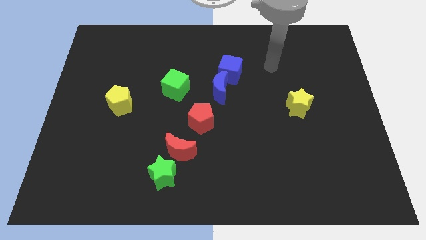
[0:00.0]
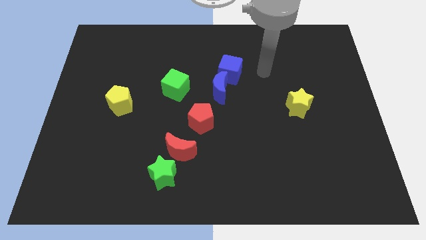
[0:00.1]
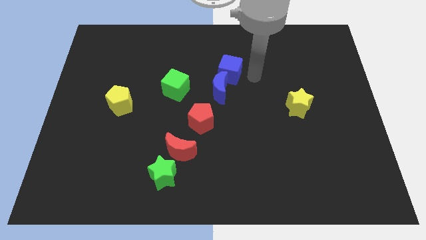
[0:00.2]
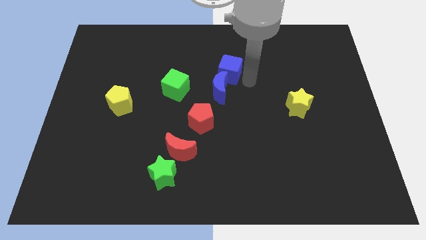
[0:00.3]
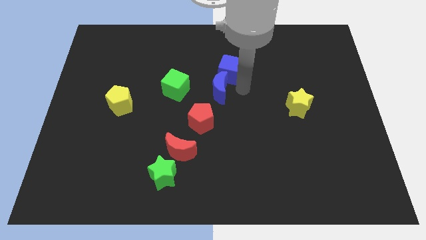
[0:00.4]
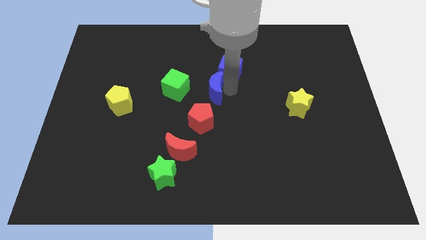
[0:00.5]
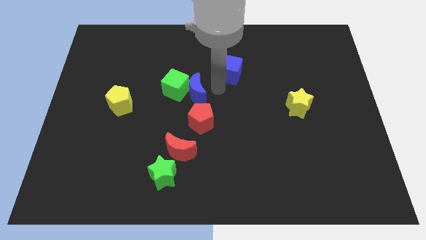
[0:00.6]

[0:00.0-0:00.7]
move the blue cube away from the blue moon

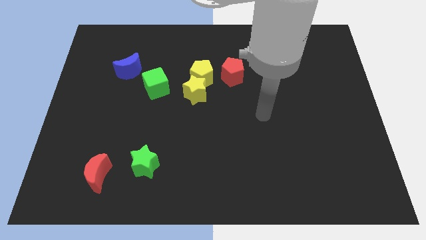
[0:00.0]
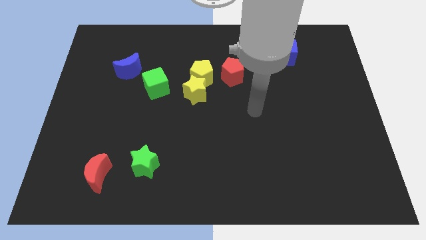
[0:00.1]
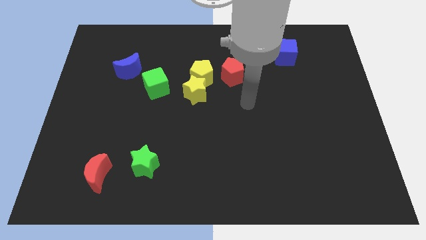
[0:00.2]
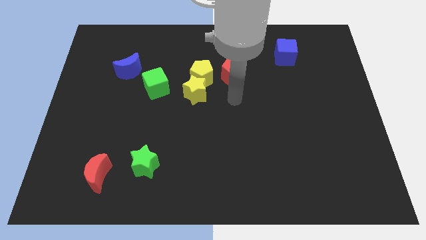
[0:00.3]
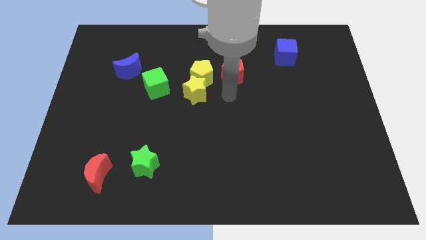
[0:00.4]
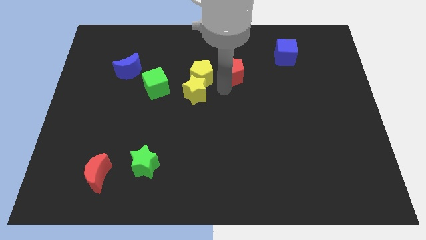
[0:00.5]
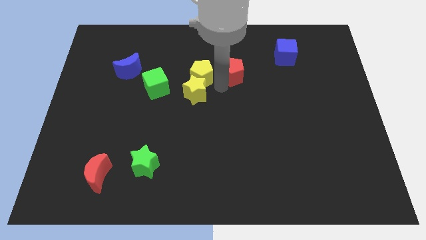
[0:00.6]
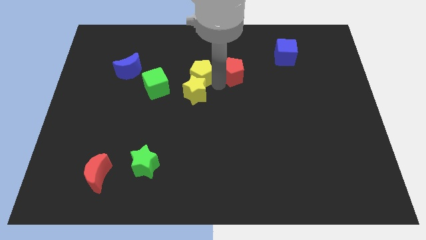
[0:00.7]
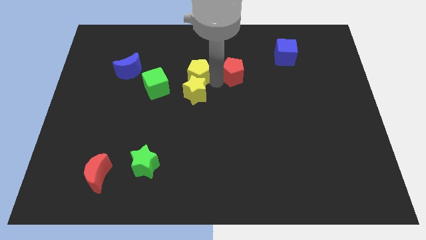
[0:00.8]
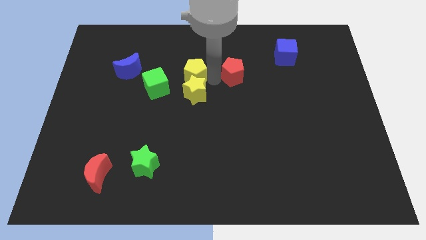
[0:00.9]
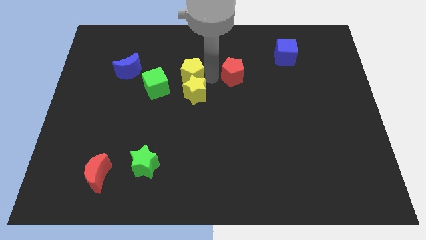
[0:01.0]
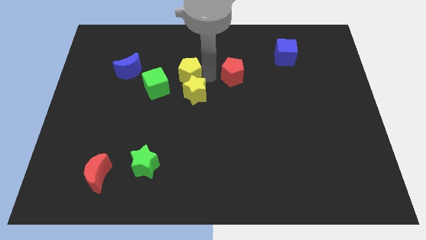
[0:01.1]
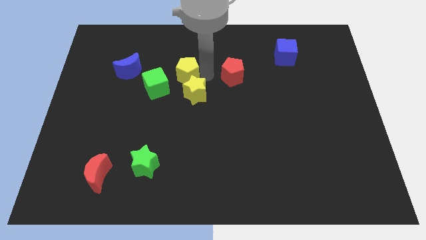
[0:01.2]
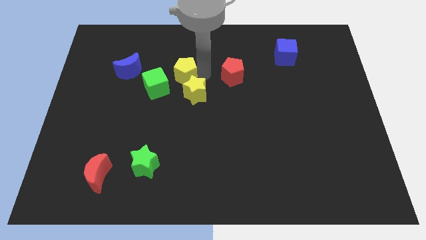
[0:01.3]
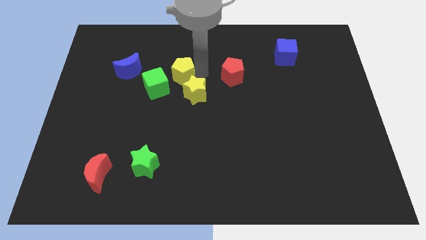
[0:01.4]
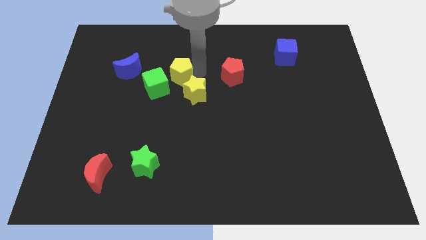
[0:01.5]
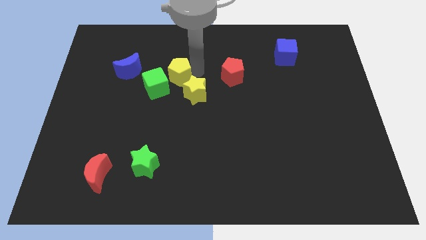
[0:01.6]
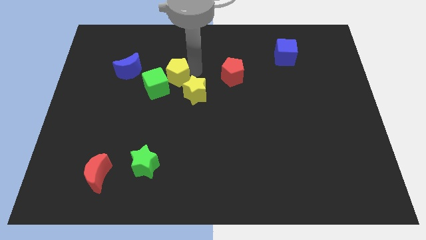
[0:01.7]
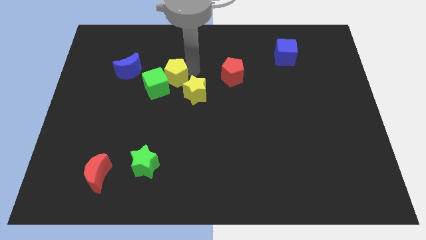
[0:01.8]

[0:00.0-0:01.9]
separate the yellow pentagon from the yellow star and red pentagon

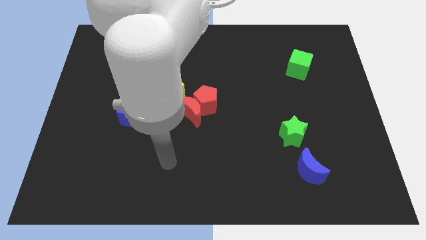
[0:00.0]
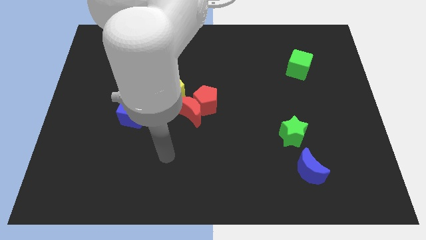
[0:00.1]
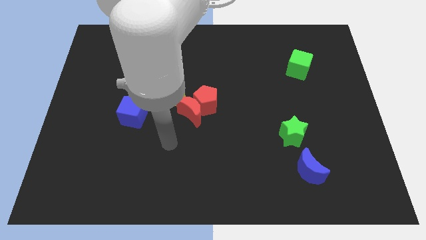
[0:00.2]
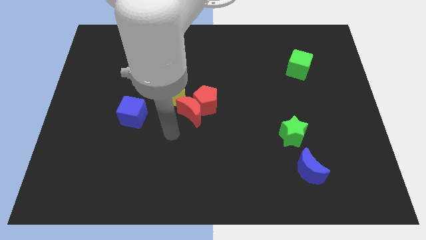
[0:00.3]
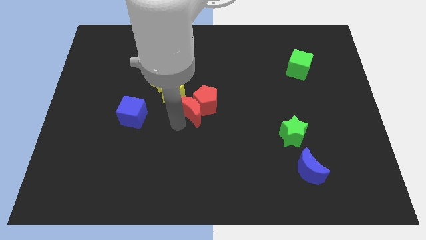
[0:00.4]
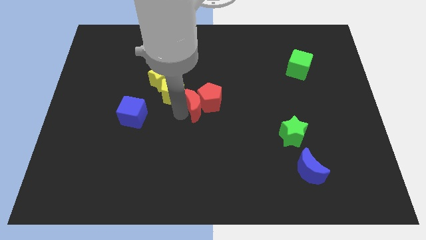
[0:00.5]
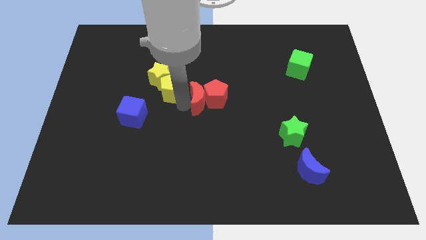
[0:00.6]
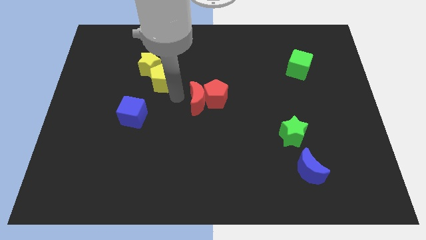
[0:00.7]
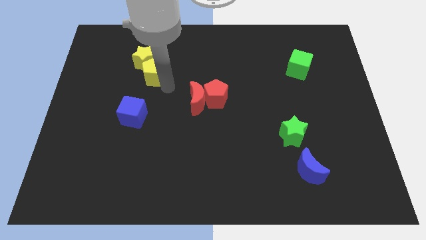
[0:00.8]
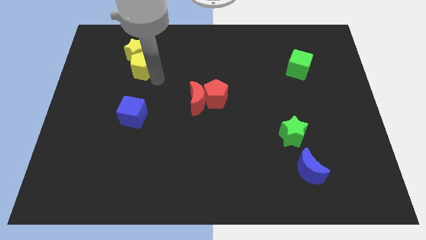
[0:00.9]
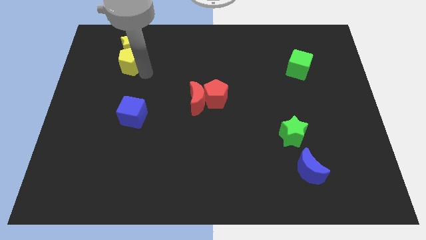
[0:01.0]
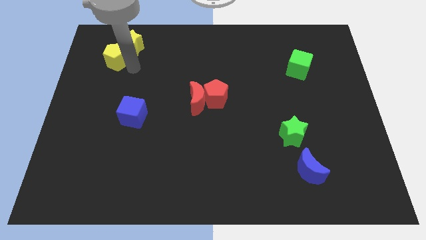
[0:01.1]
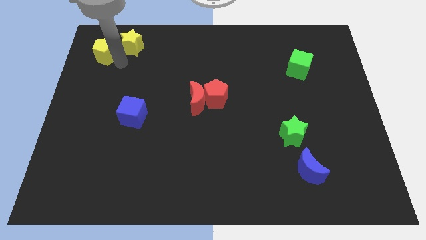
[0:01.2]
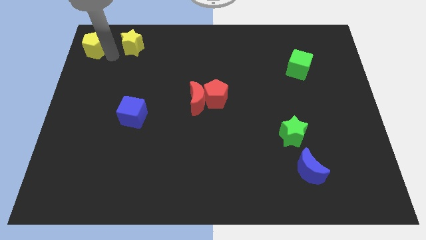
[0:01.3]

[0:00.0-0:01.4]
separate the yellow star from the yellow pentagon

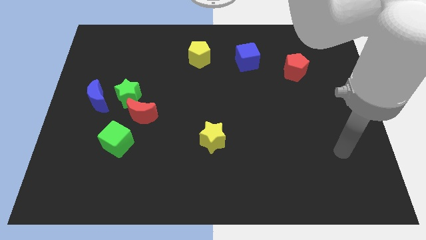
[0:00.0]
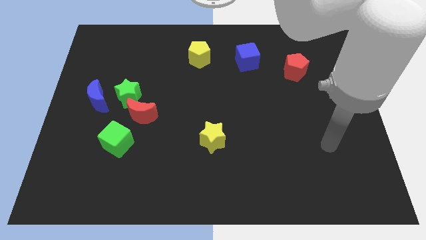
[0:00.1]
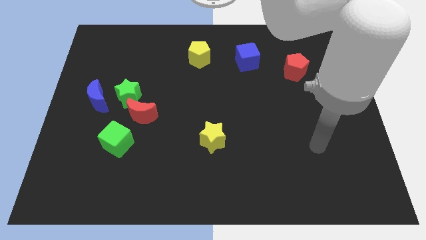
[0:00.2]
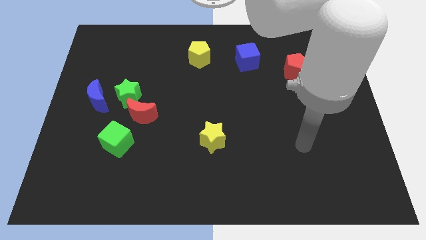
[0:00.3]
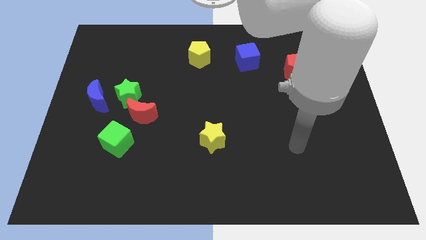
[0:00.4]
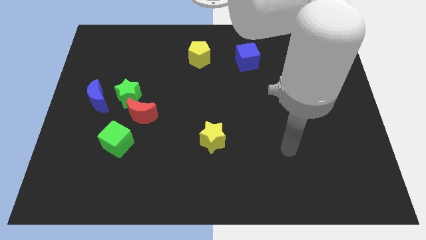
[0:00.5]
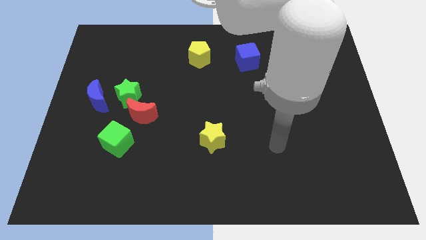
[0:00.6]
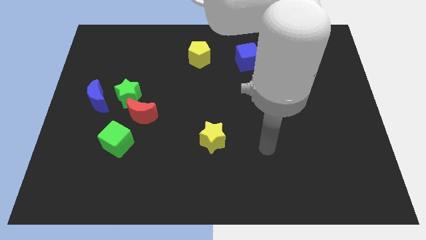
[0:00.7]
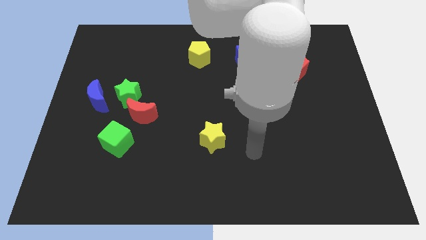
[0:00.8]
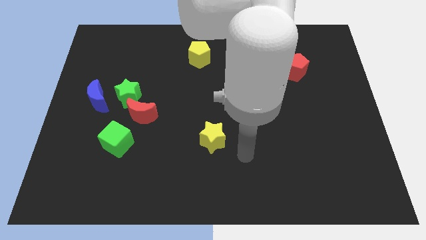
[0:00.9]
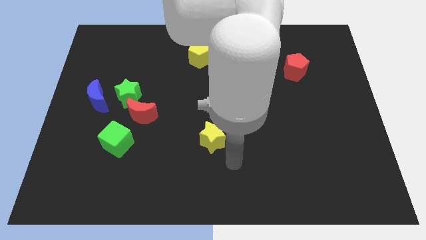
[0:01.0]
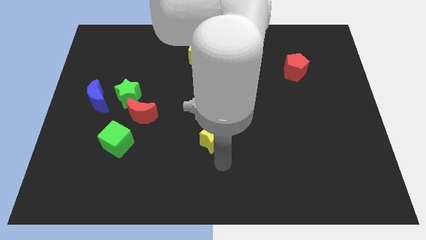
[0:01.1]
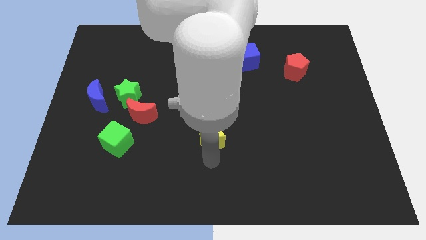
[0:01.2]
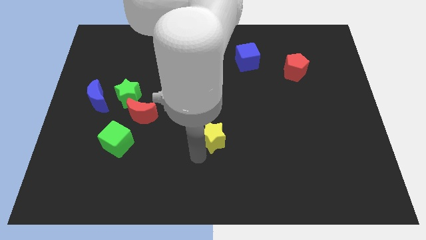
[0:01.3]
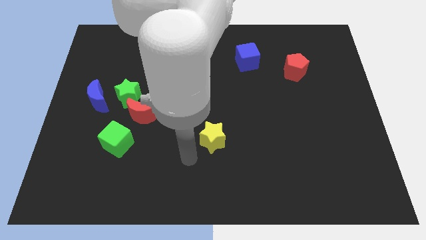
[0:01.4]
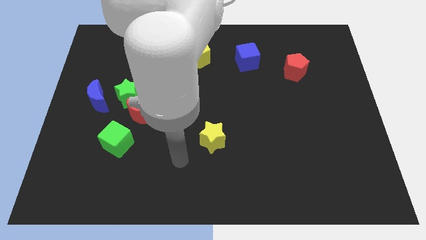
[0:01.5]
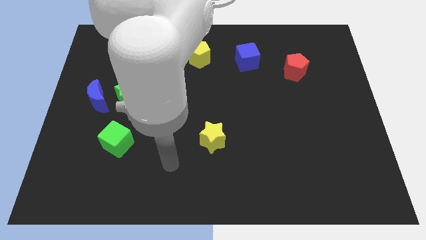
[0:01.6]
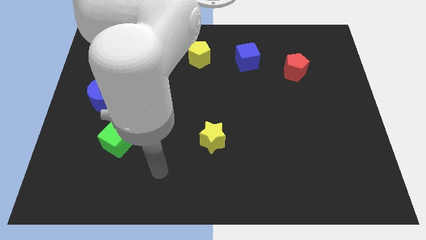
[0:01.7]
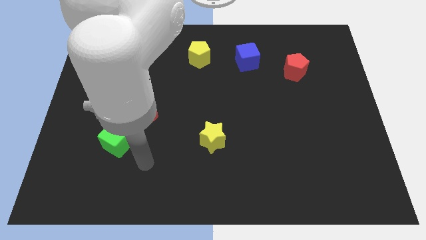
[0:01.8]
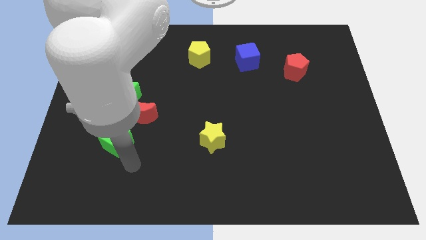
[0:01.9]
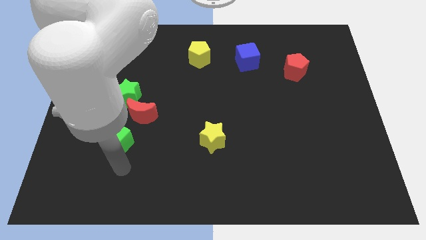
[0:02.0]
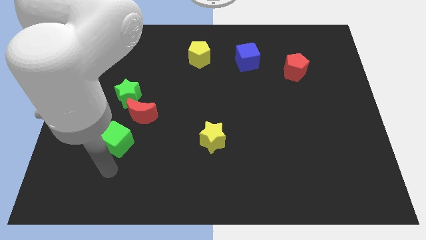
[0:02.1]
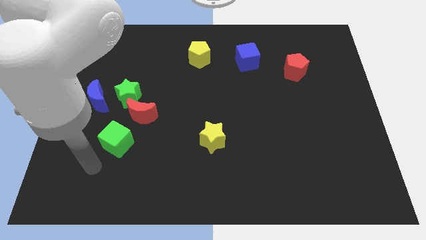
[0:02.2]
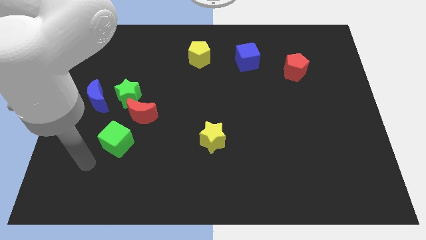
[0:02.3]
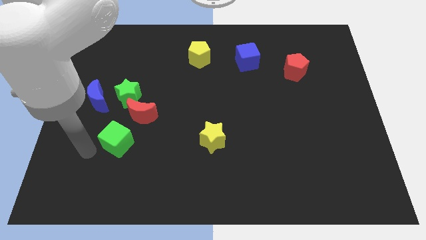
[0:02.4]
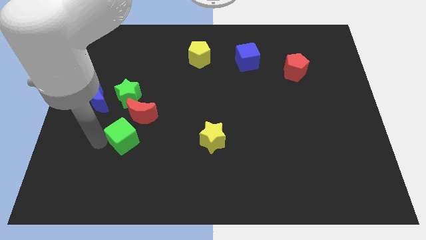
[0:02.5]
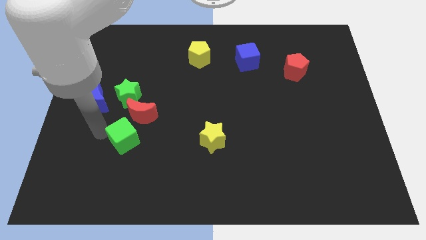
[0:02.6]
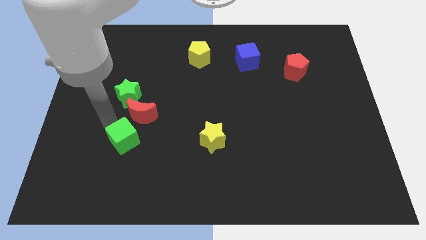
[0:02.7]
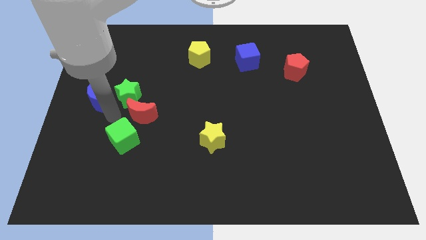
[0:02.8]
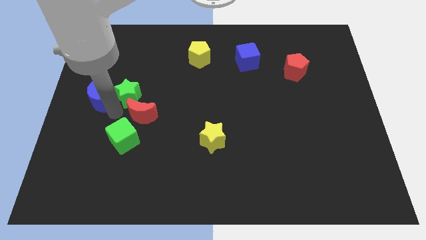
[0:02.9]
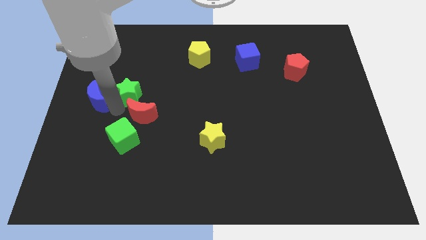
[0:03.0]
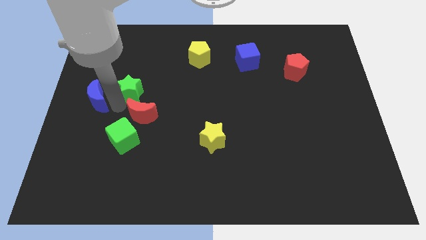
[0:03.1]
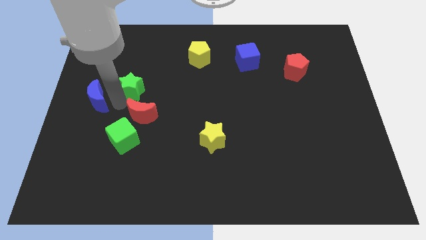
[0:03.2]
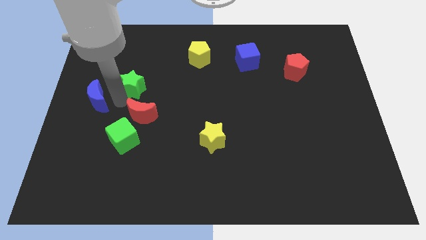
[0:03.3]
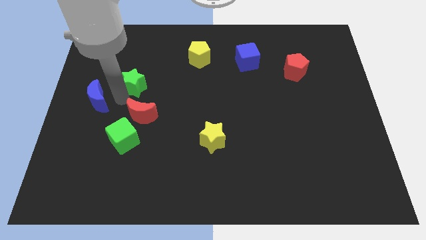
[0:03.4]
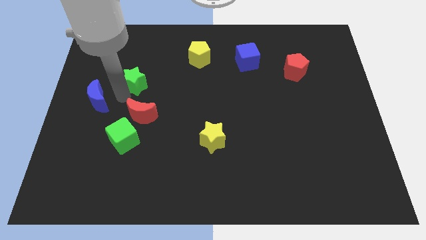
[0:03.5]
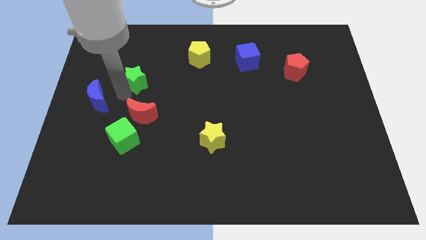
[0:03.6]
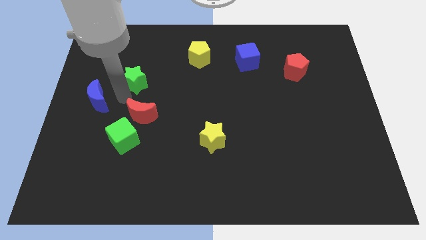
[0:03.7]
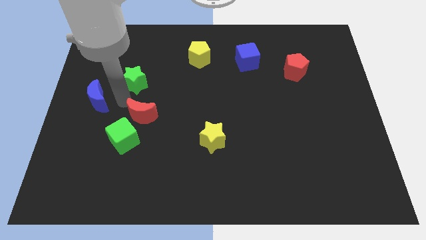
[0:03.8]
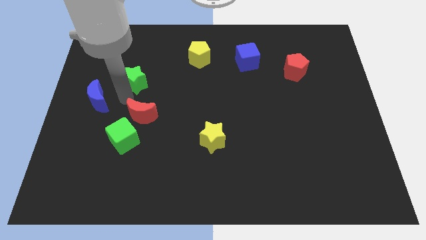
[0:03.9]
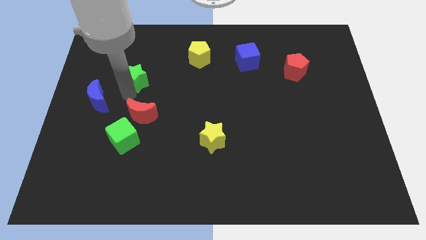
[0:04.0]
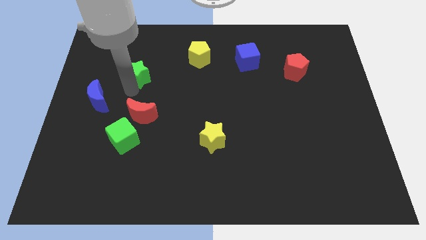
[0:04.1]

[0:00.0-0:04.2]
pull the green star apart from the red moon and blue moon

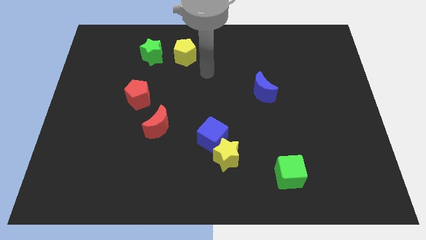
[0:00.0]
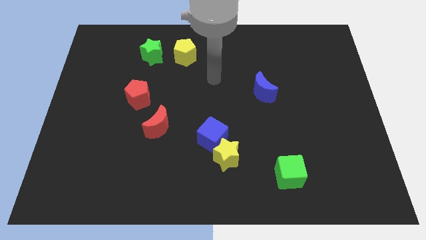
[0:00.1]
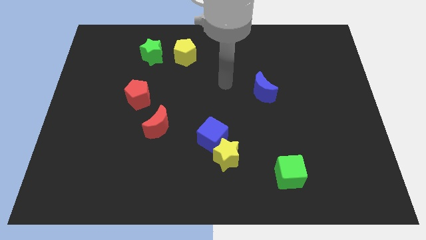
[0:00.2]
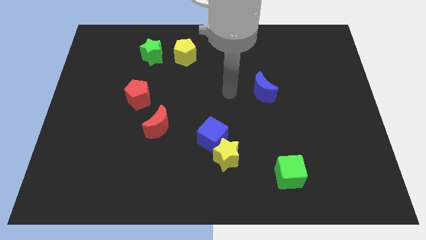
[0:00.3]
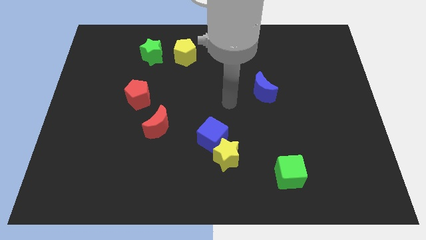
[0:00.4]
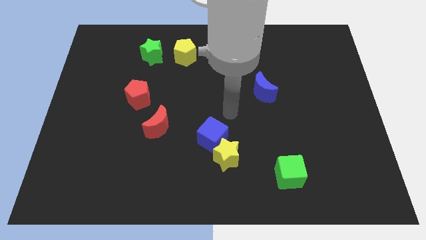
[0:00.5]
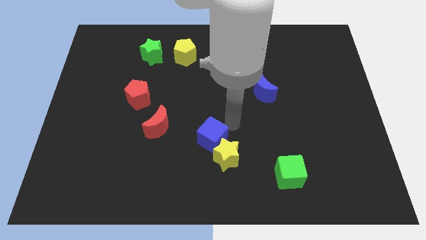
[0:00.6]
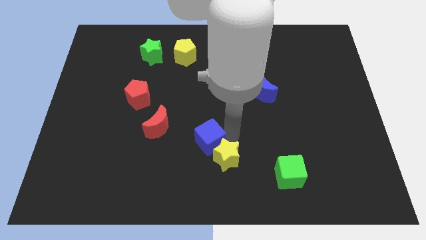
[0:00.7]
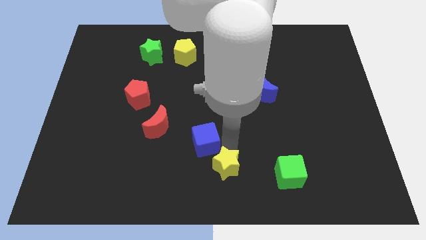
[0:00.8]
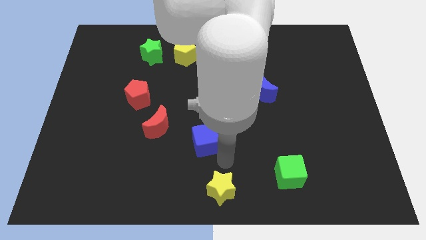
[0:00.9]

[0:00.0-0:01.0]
pull the blue cube apart from the yellow star

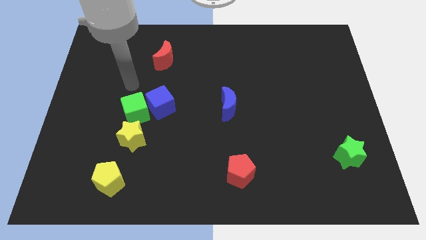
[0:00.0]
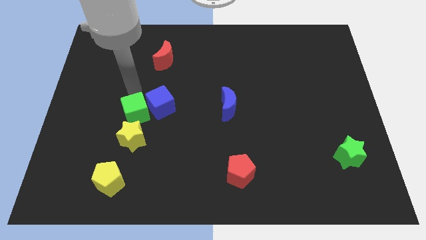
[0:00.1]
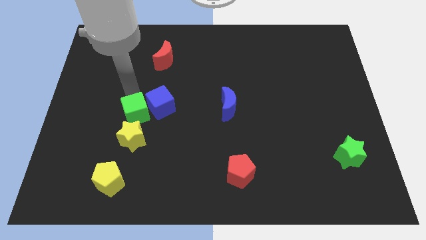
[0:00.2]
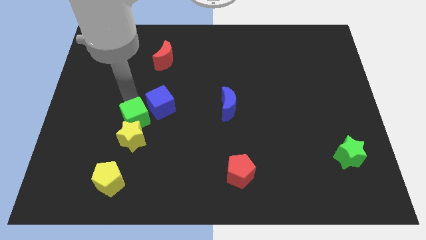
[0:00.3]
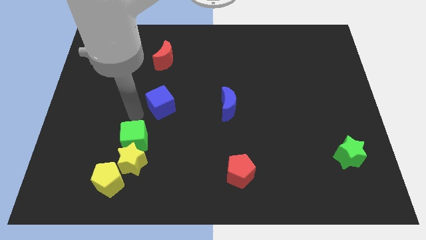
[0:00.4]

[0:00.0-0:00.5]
move the blue cube away from the green cube
